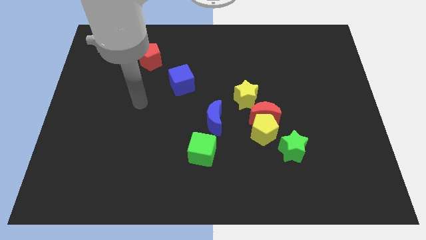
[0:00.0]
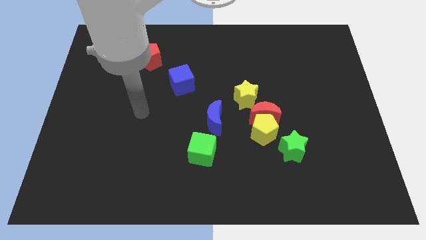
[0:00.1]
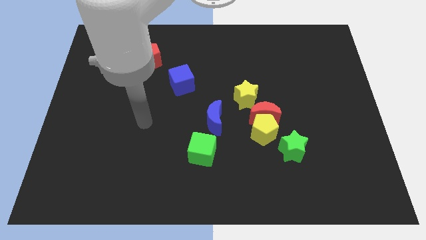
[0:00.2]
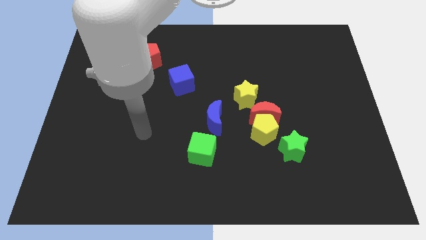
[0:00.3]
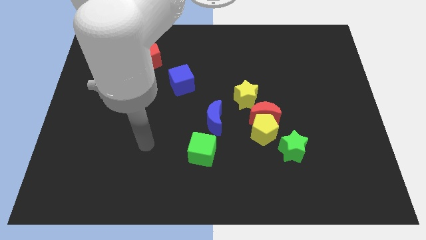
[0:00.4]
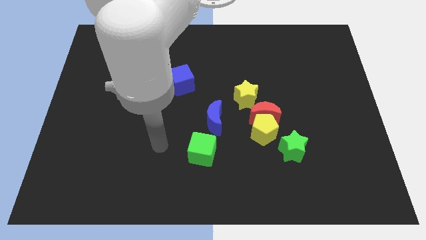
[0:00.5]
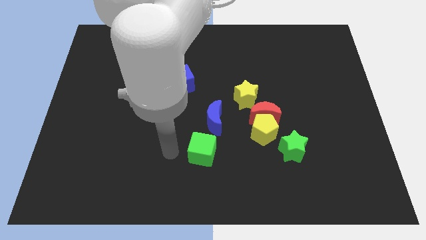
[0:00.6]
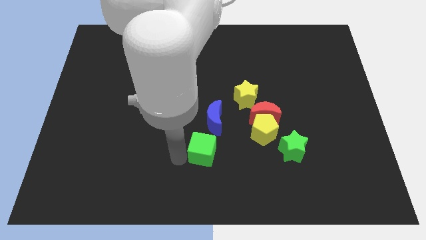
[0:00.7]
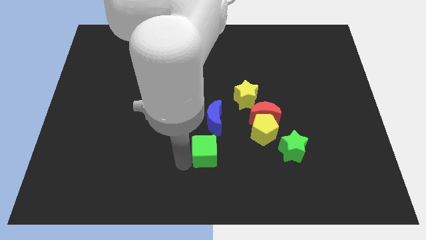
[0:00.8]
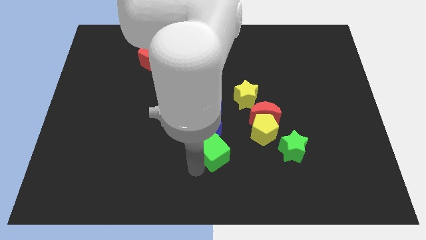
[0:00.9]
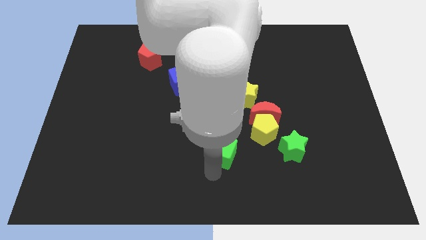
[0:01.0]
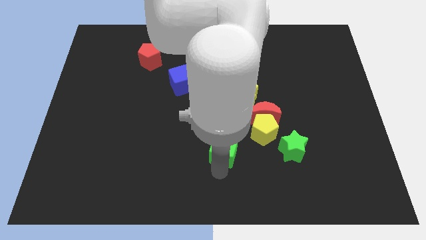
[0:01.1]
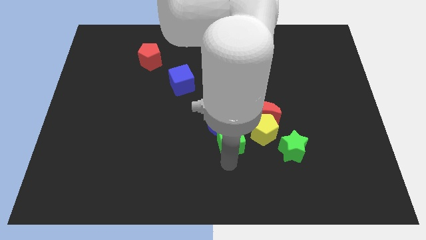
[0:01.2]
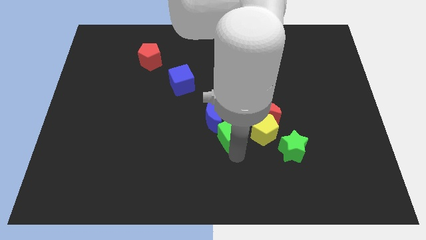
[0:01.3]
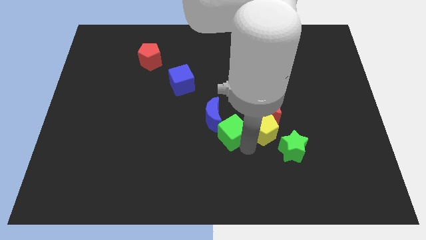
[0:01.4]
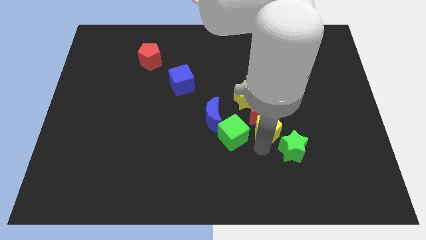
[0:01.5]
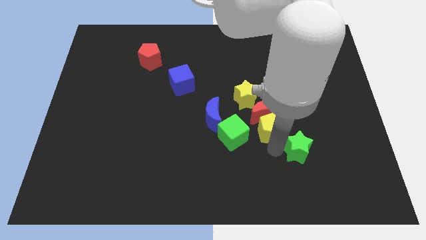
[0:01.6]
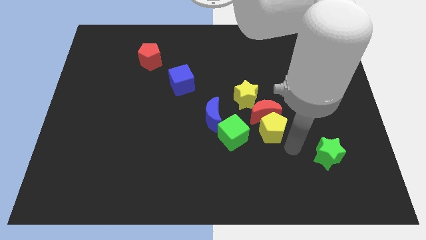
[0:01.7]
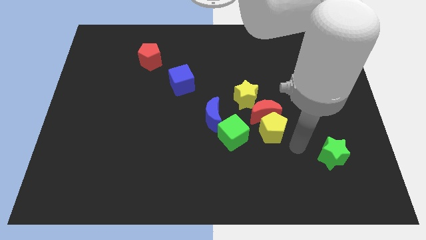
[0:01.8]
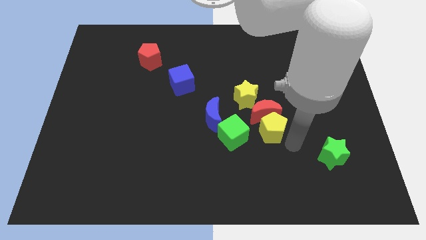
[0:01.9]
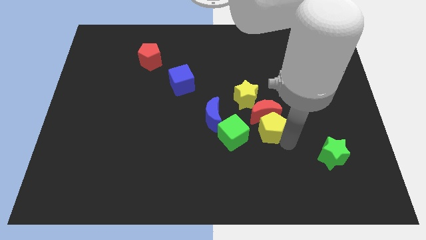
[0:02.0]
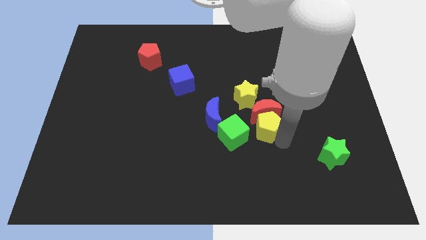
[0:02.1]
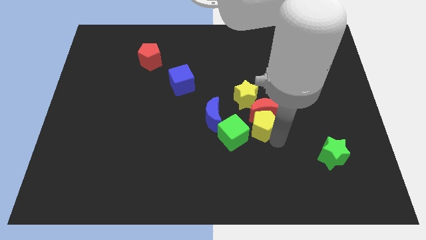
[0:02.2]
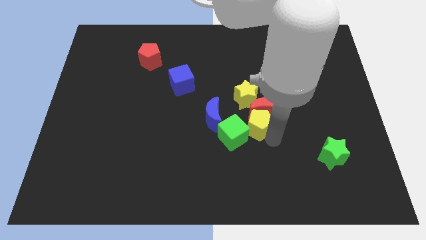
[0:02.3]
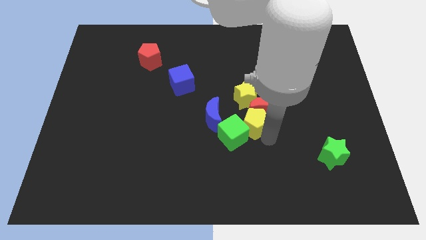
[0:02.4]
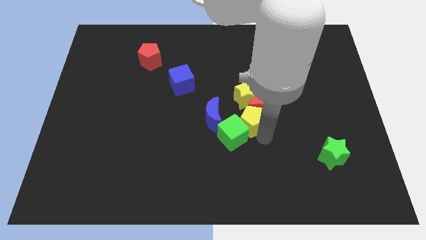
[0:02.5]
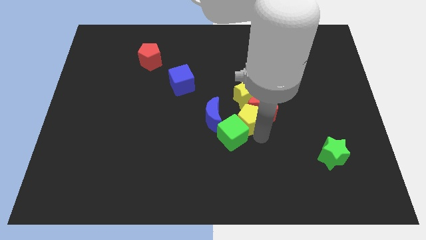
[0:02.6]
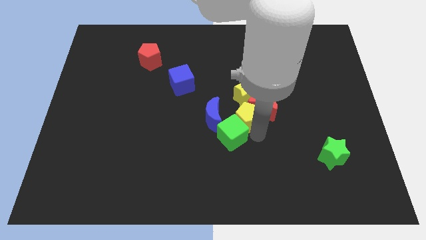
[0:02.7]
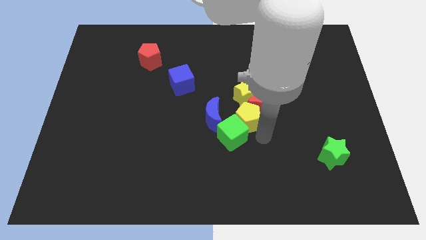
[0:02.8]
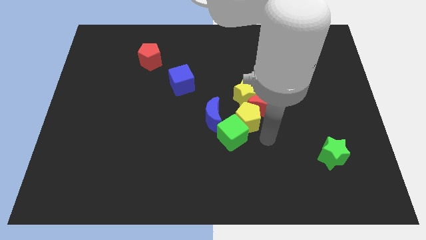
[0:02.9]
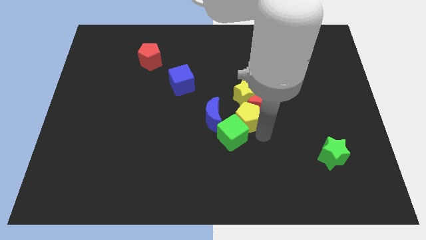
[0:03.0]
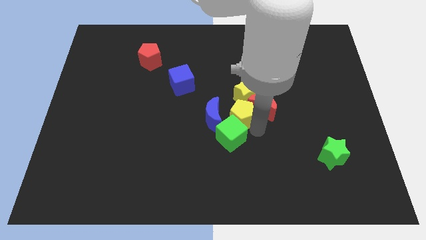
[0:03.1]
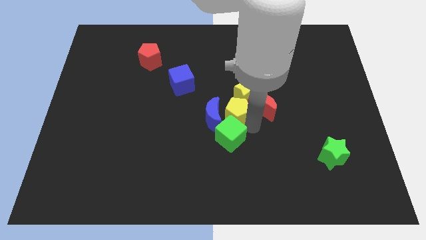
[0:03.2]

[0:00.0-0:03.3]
slightly push the yellow pentagon up and then to the left

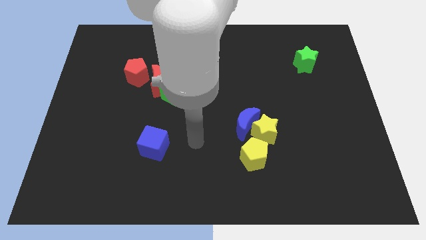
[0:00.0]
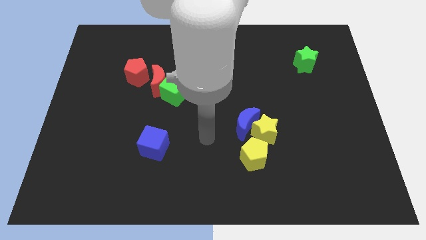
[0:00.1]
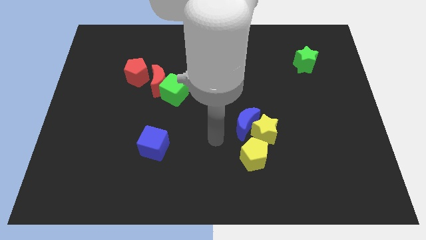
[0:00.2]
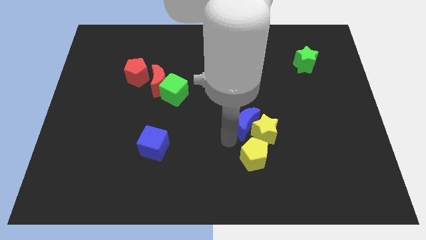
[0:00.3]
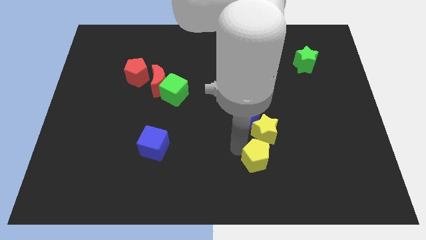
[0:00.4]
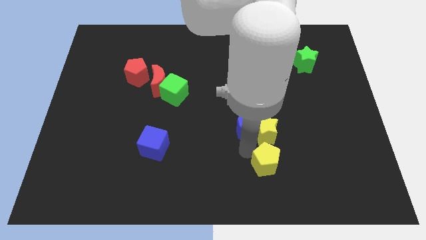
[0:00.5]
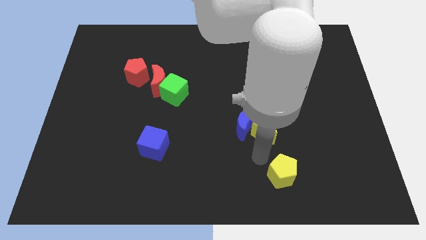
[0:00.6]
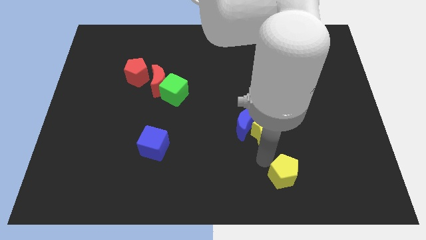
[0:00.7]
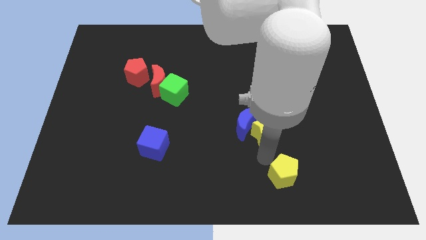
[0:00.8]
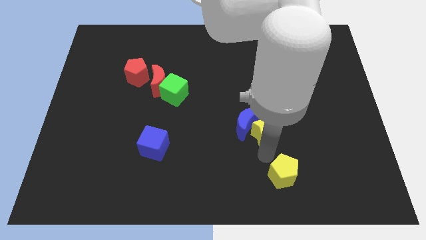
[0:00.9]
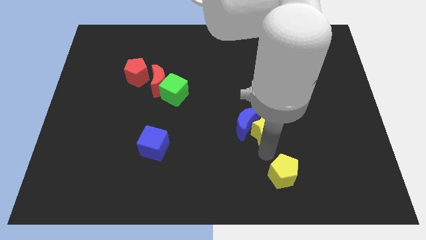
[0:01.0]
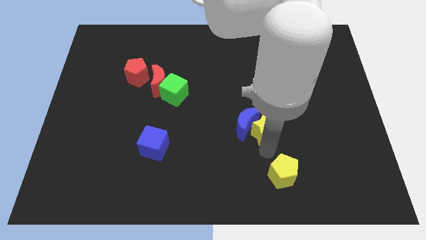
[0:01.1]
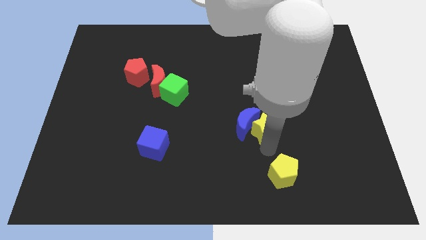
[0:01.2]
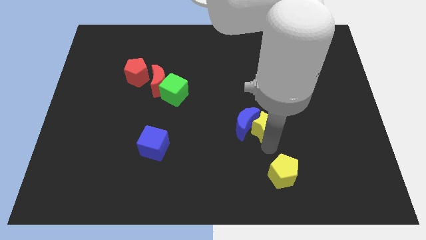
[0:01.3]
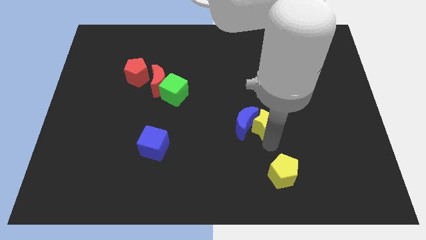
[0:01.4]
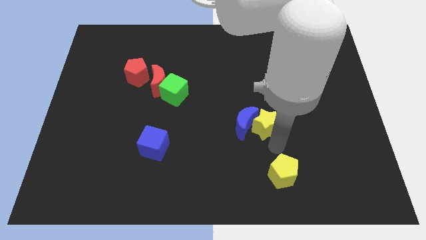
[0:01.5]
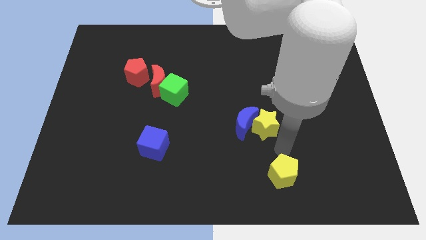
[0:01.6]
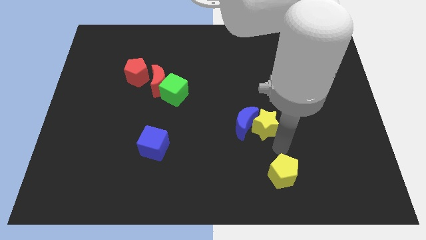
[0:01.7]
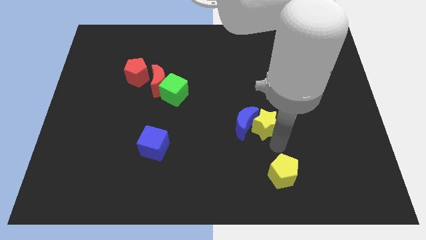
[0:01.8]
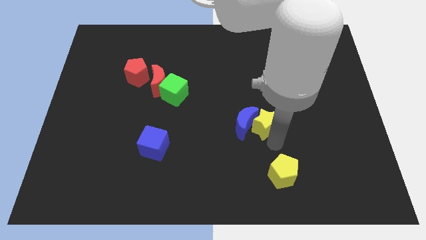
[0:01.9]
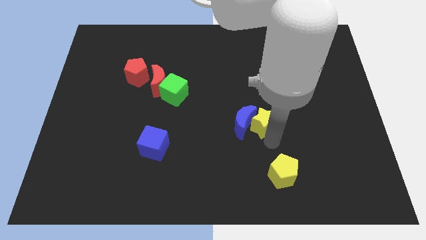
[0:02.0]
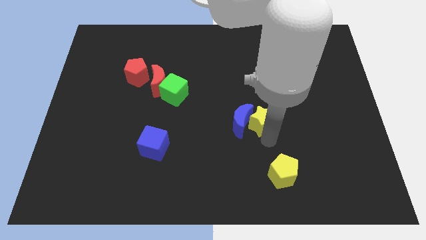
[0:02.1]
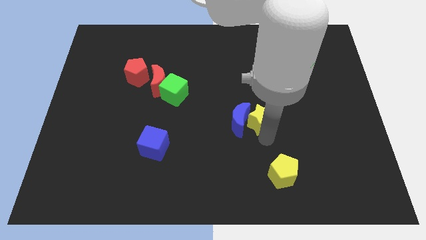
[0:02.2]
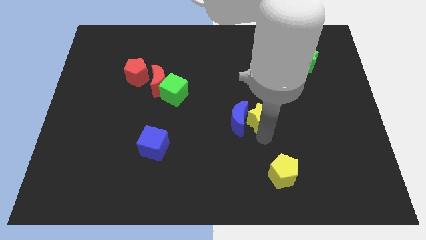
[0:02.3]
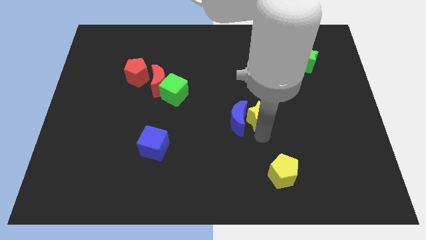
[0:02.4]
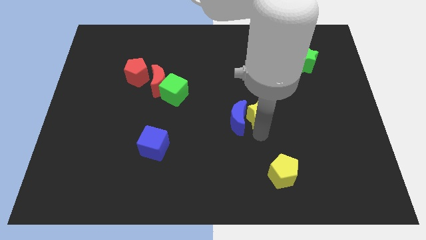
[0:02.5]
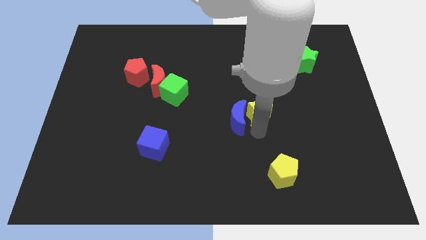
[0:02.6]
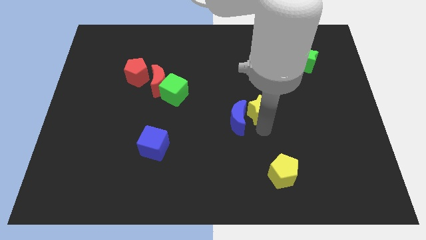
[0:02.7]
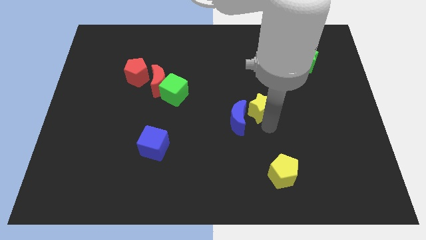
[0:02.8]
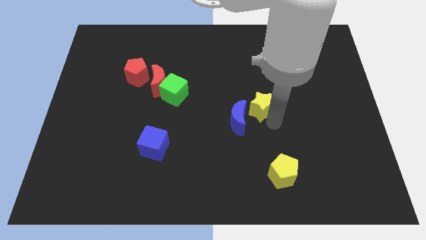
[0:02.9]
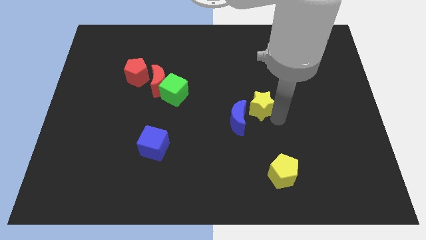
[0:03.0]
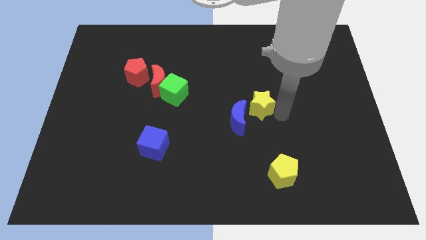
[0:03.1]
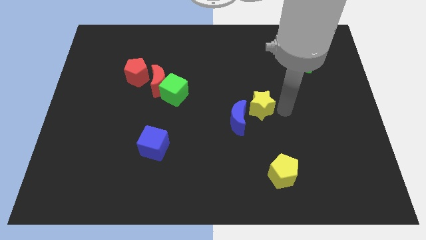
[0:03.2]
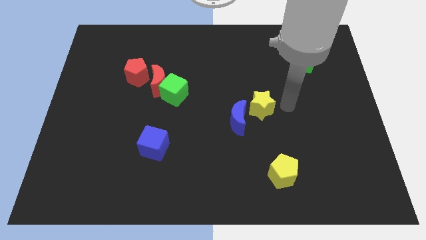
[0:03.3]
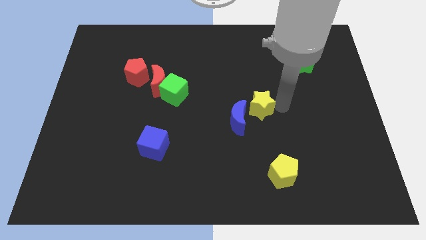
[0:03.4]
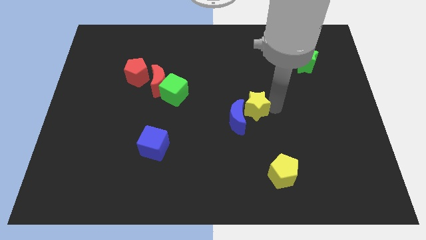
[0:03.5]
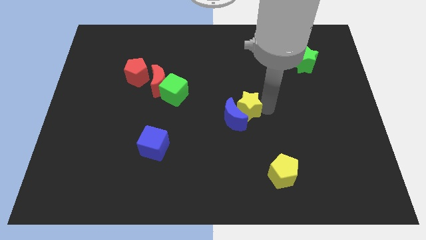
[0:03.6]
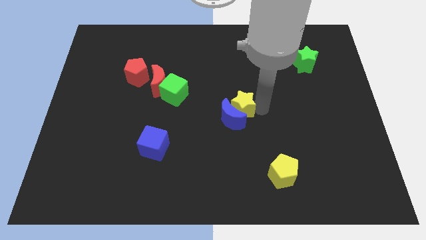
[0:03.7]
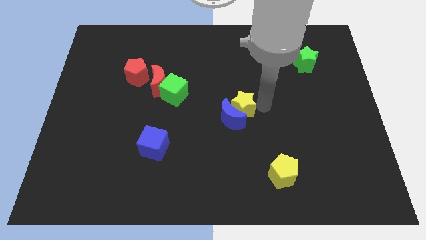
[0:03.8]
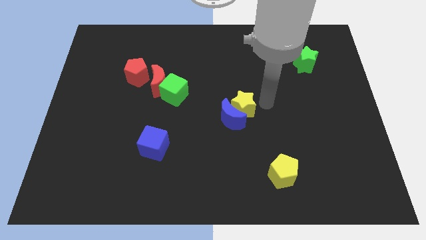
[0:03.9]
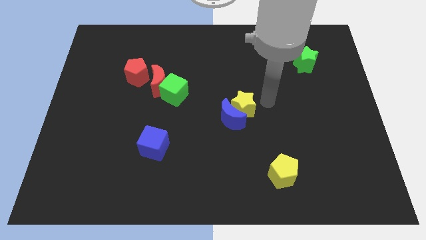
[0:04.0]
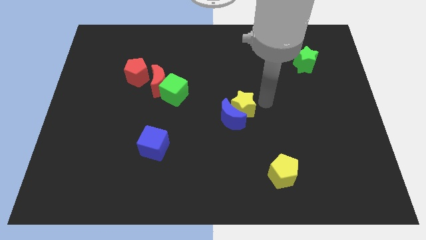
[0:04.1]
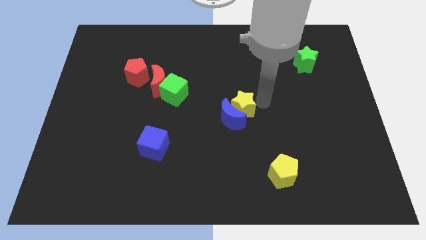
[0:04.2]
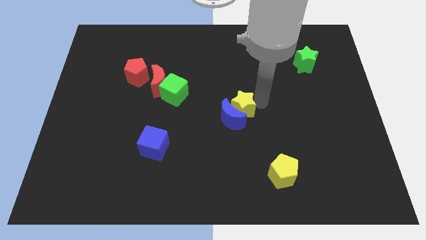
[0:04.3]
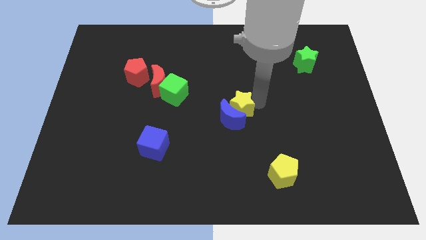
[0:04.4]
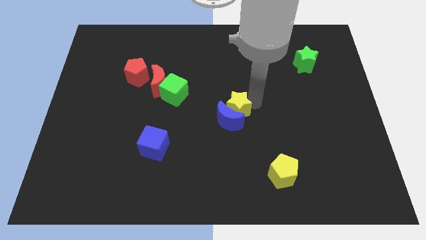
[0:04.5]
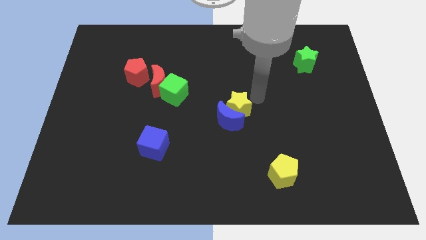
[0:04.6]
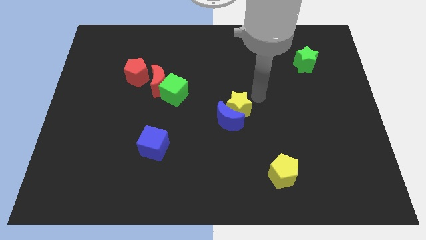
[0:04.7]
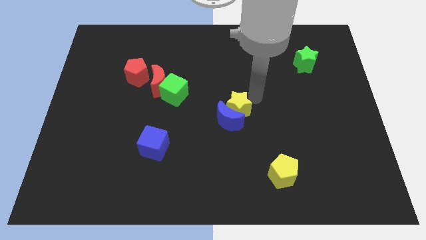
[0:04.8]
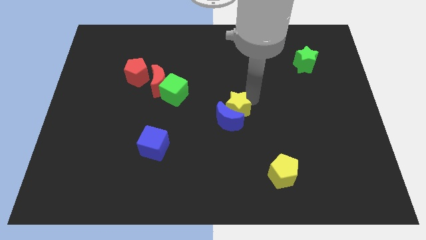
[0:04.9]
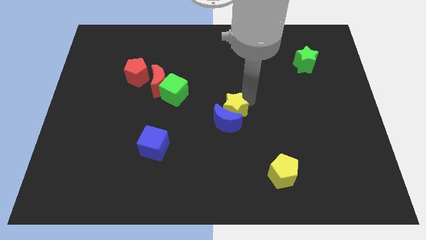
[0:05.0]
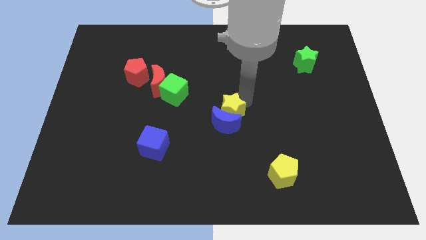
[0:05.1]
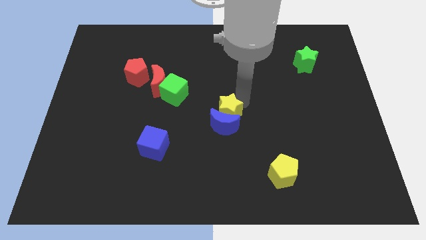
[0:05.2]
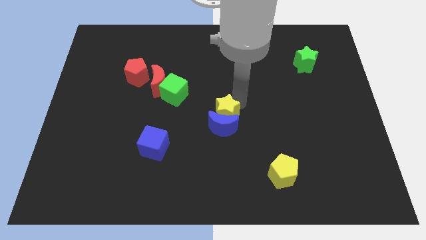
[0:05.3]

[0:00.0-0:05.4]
push the yellow star left somewhat
